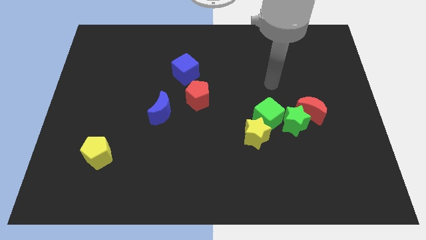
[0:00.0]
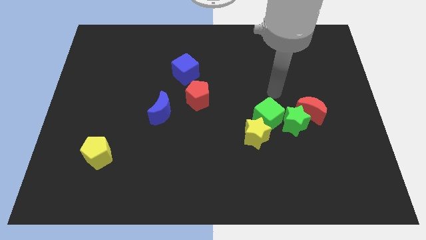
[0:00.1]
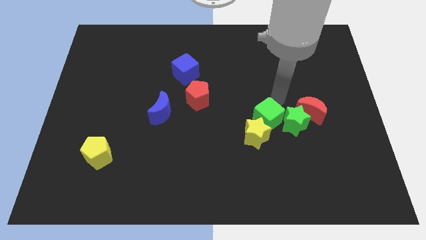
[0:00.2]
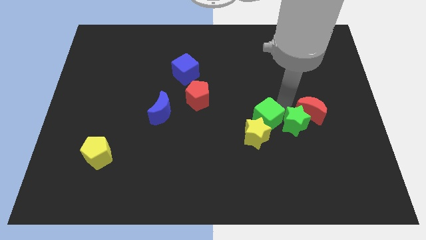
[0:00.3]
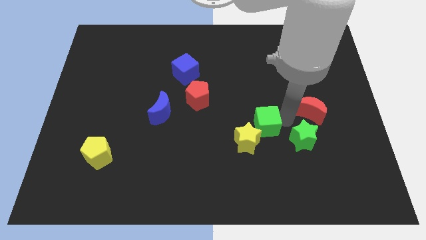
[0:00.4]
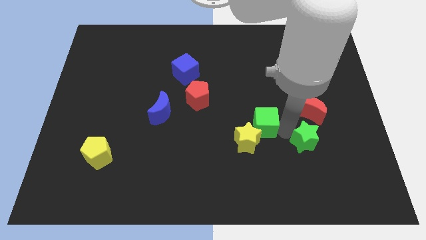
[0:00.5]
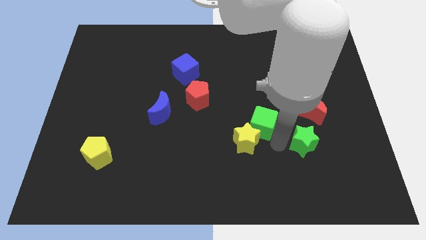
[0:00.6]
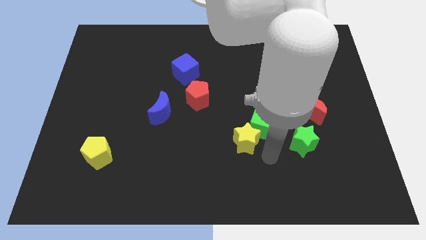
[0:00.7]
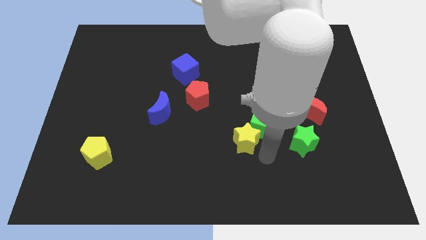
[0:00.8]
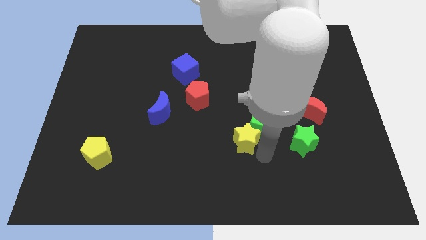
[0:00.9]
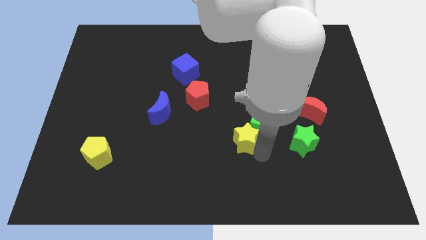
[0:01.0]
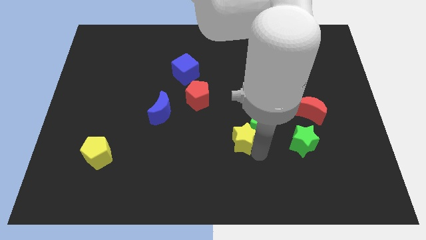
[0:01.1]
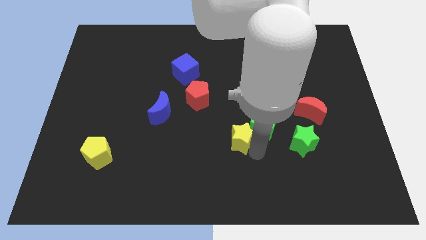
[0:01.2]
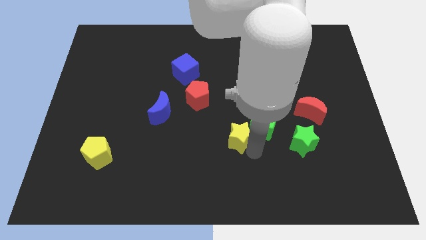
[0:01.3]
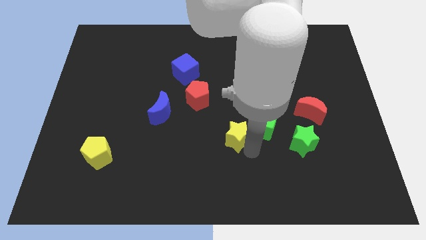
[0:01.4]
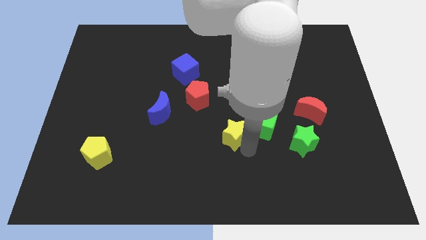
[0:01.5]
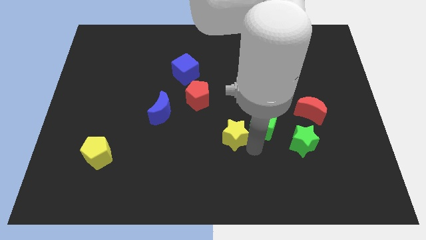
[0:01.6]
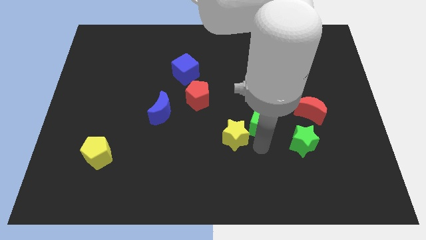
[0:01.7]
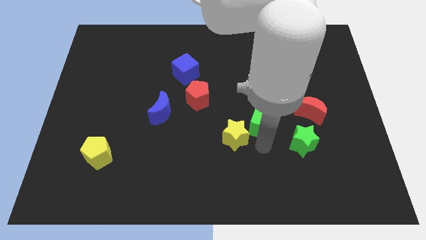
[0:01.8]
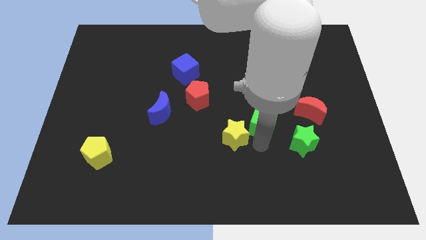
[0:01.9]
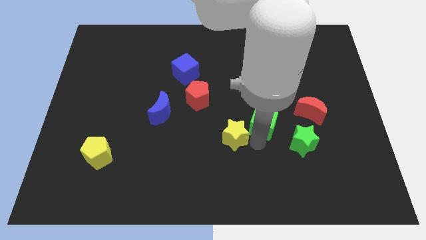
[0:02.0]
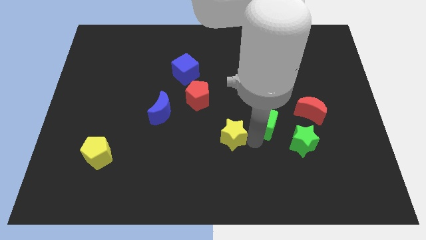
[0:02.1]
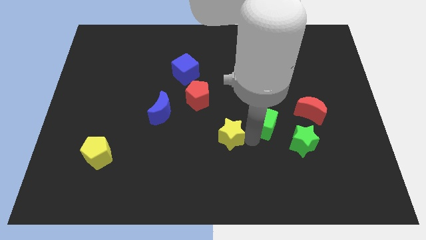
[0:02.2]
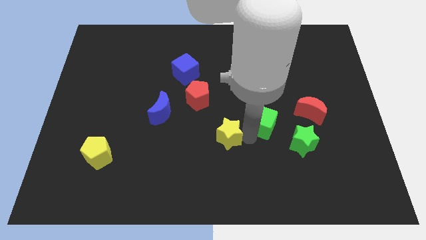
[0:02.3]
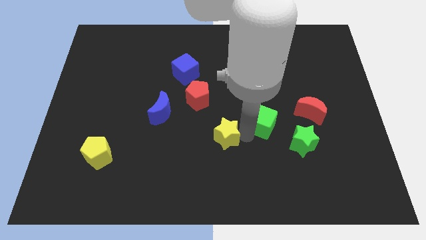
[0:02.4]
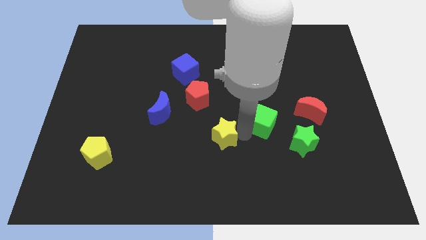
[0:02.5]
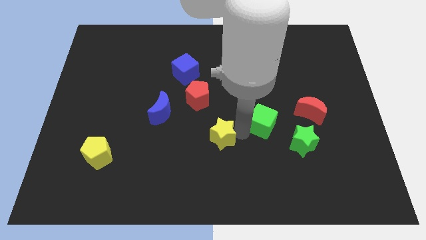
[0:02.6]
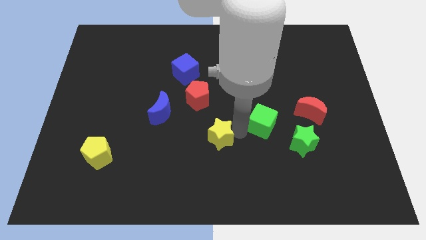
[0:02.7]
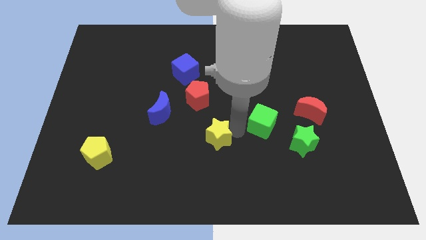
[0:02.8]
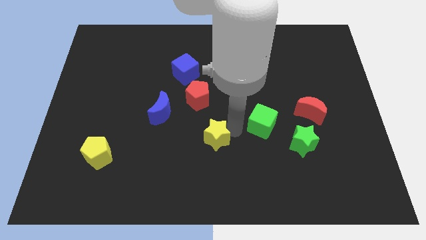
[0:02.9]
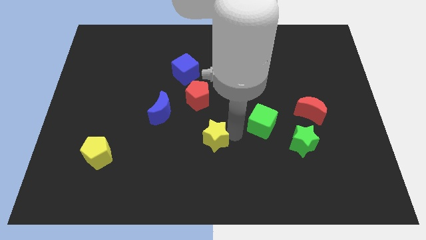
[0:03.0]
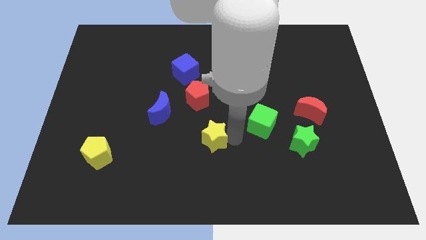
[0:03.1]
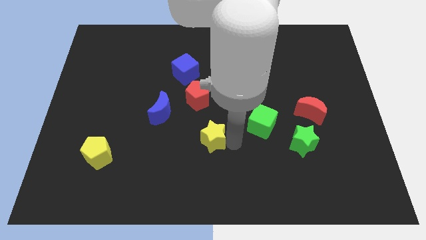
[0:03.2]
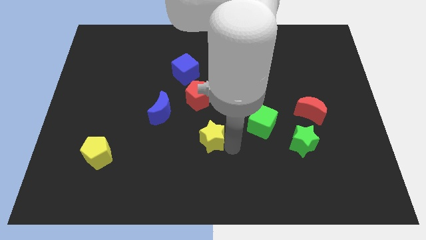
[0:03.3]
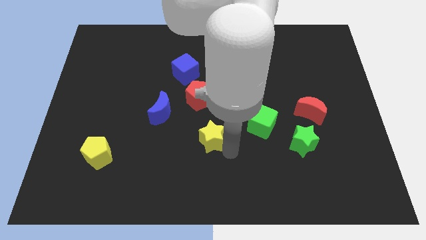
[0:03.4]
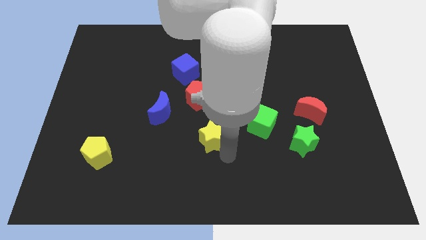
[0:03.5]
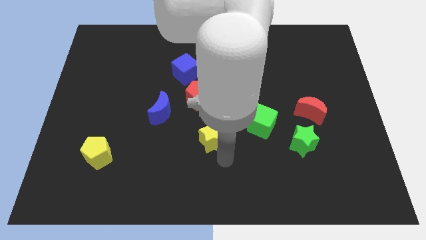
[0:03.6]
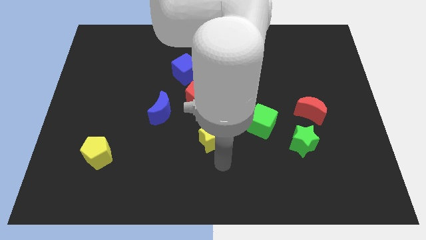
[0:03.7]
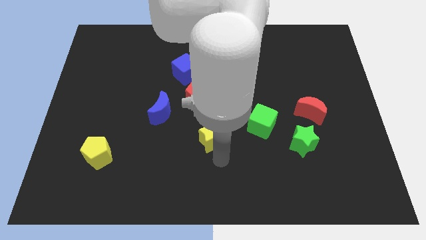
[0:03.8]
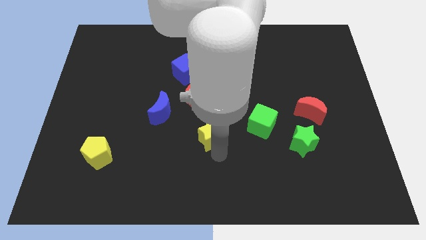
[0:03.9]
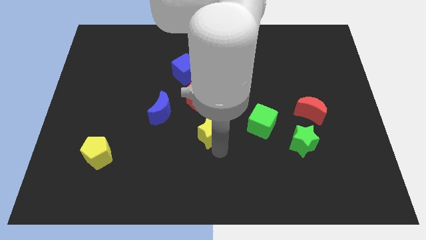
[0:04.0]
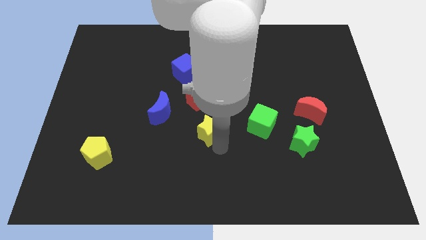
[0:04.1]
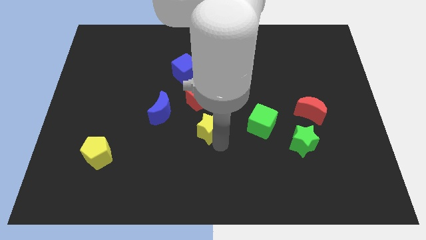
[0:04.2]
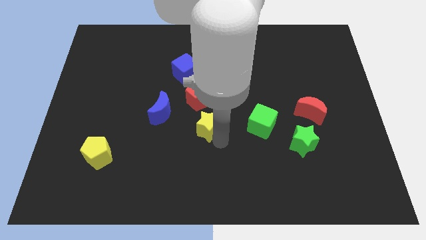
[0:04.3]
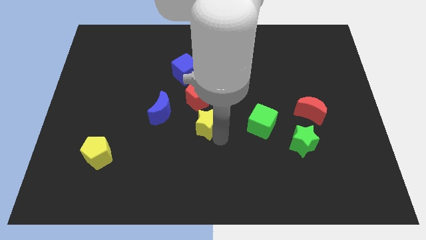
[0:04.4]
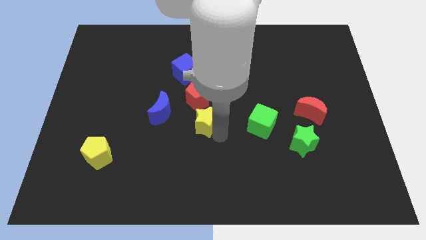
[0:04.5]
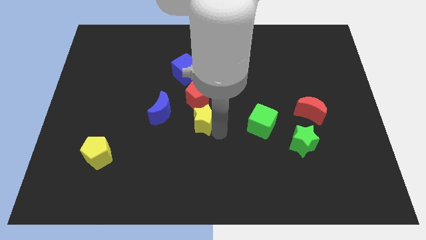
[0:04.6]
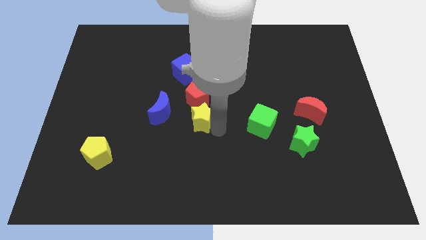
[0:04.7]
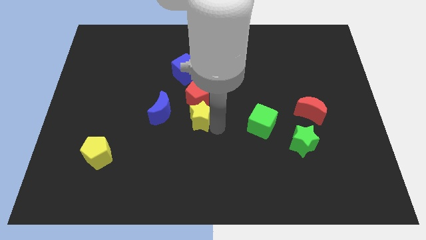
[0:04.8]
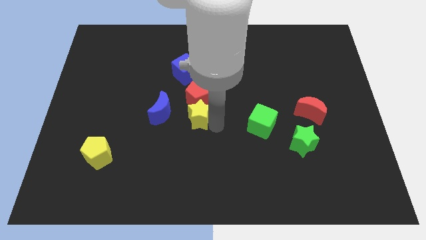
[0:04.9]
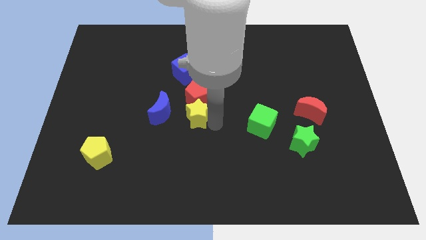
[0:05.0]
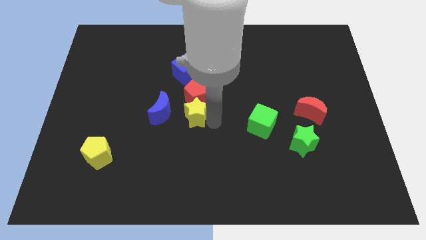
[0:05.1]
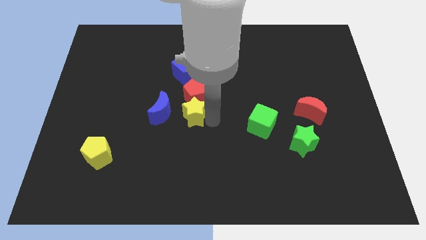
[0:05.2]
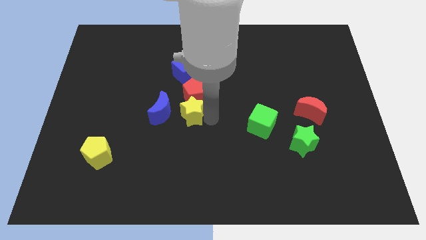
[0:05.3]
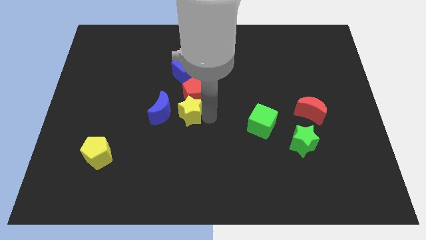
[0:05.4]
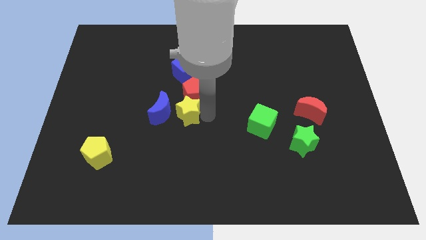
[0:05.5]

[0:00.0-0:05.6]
slide the yellow star towards the blue moon

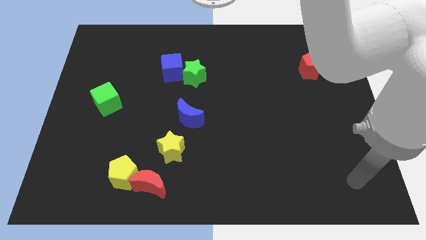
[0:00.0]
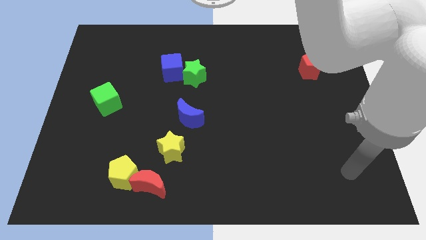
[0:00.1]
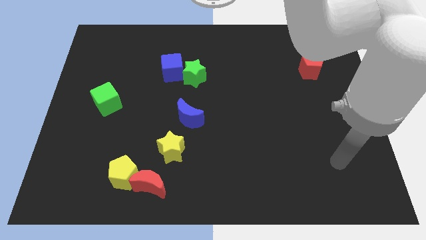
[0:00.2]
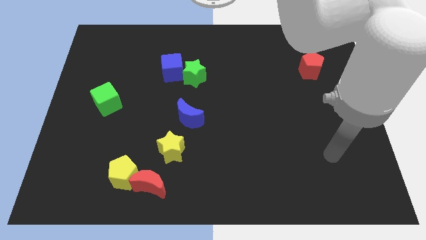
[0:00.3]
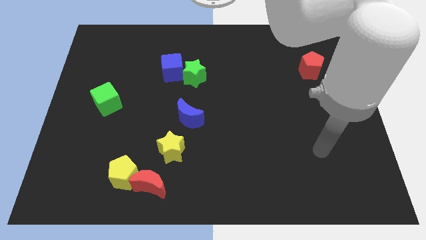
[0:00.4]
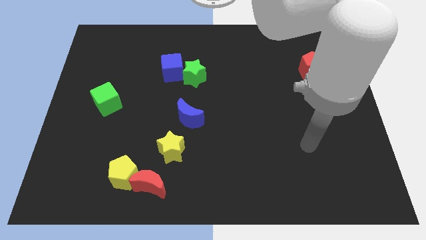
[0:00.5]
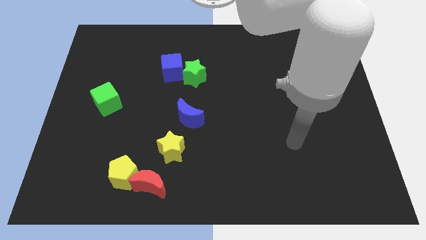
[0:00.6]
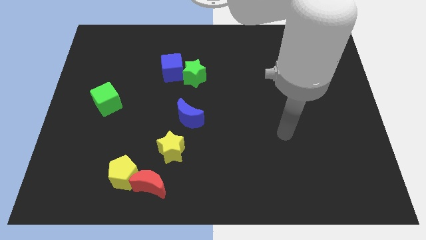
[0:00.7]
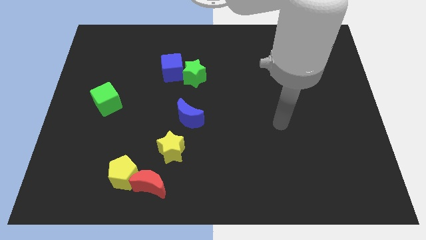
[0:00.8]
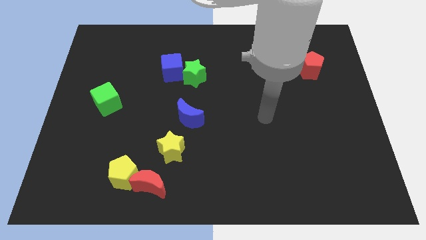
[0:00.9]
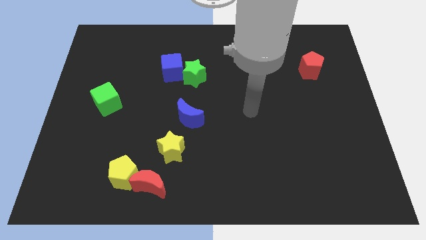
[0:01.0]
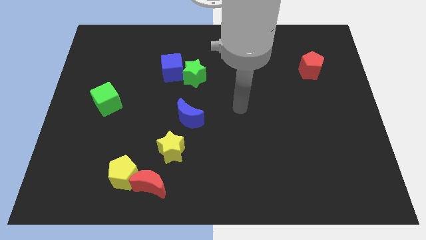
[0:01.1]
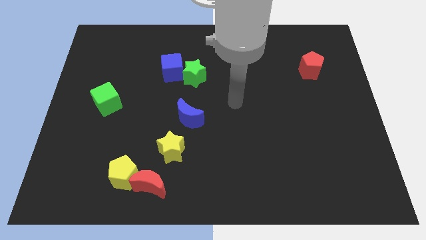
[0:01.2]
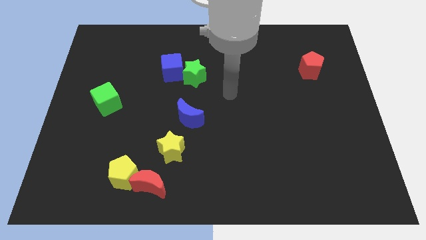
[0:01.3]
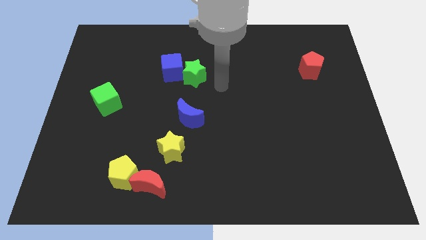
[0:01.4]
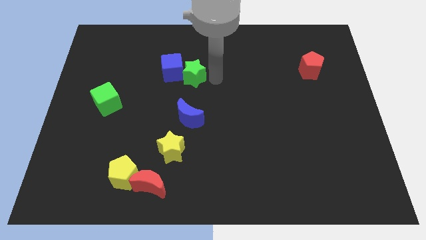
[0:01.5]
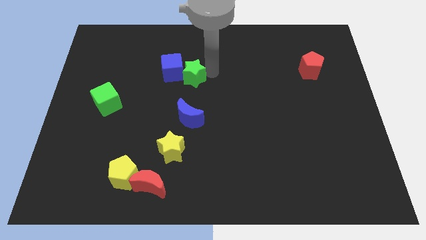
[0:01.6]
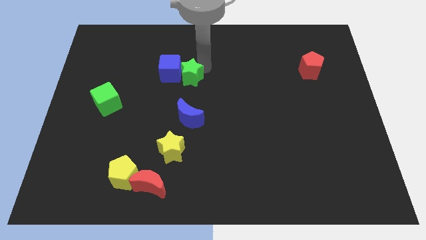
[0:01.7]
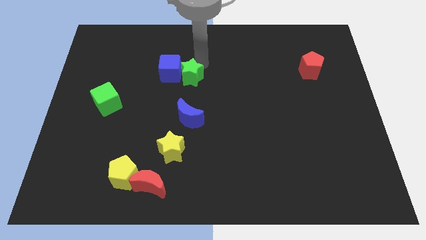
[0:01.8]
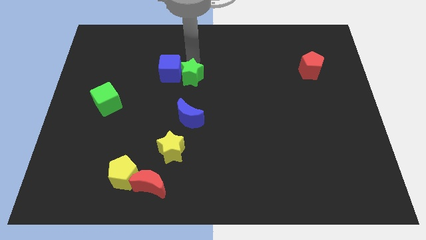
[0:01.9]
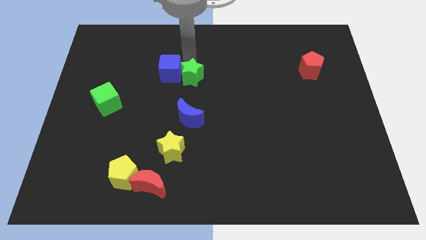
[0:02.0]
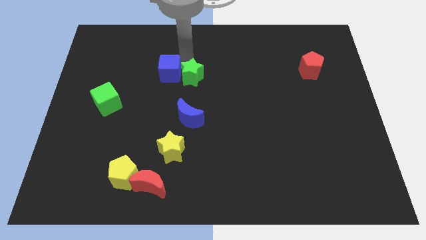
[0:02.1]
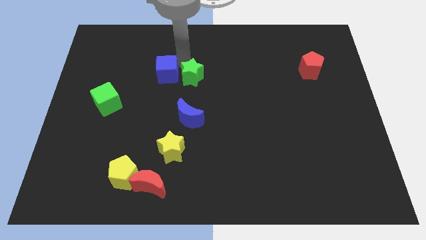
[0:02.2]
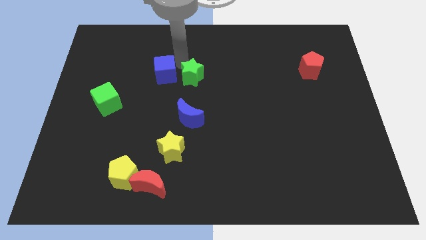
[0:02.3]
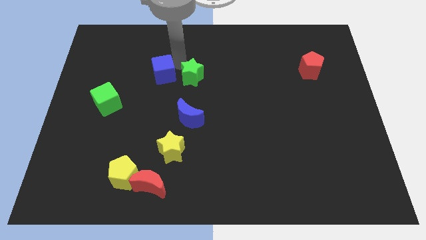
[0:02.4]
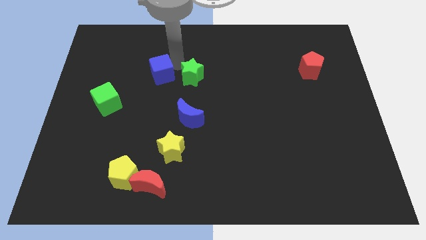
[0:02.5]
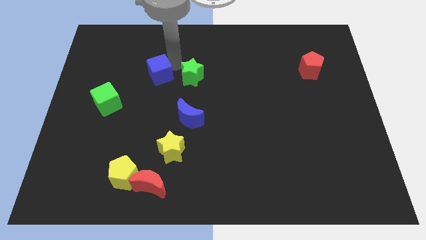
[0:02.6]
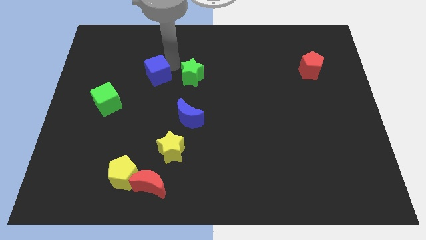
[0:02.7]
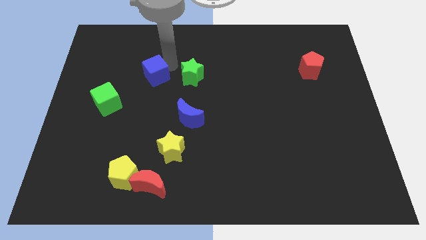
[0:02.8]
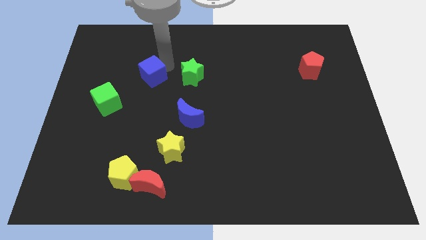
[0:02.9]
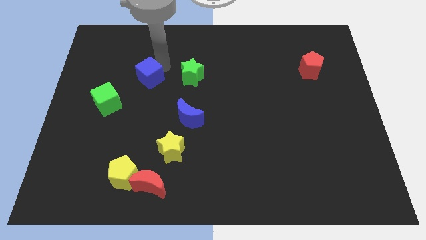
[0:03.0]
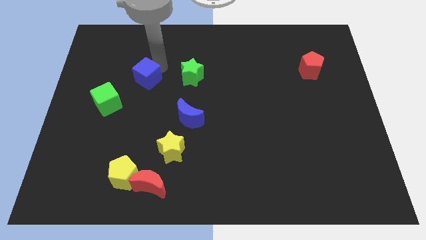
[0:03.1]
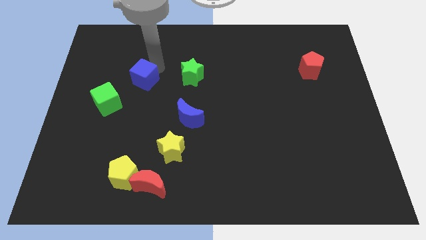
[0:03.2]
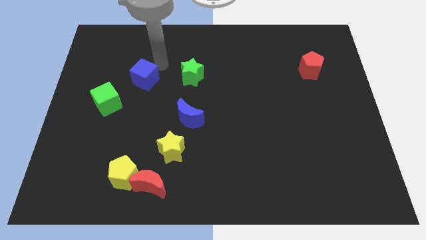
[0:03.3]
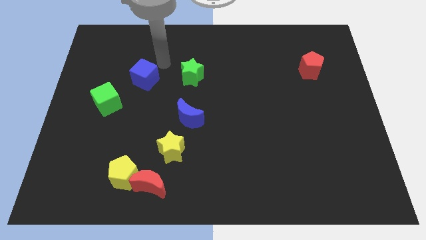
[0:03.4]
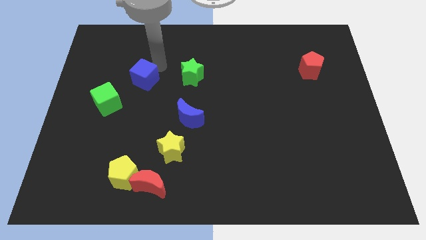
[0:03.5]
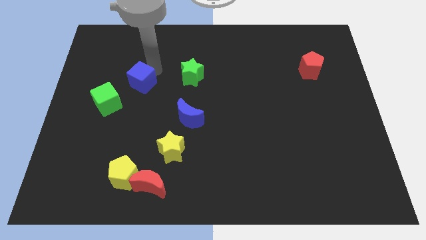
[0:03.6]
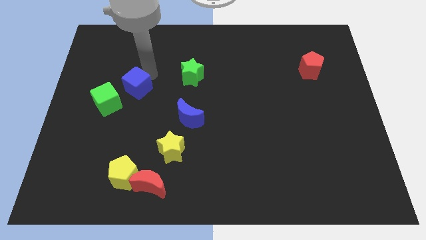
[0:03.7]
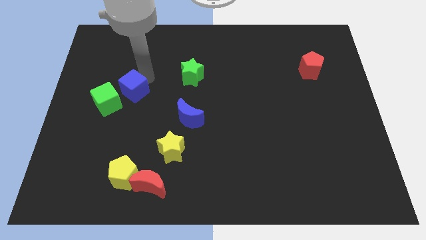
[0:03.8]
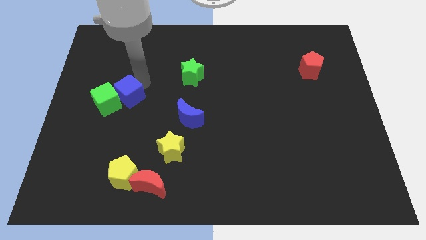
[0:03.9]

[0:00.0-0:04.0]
push the blue cube close to the green cube
